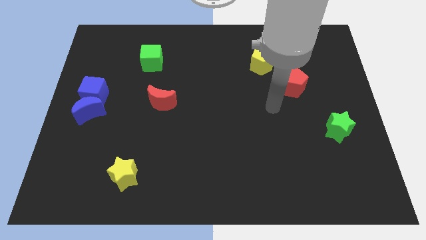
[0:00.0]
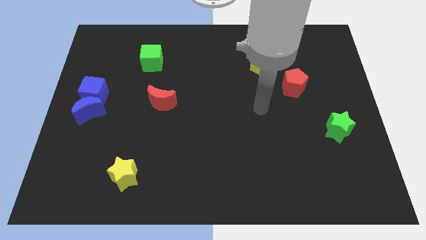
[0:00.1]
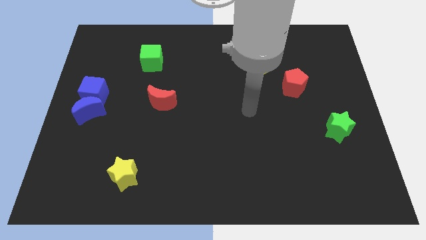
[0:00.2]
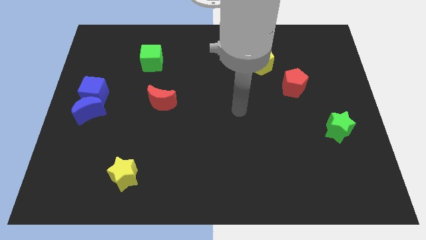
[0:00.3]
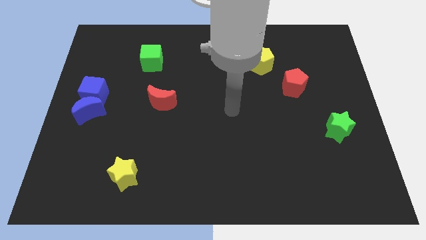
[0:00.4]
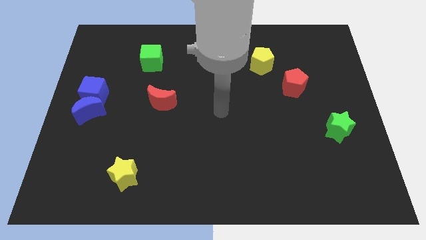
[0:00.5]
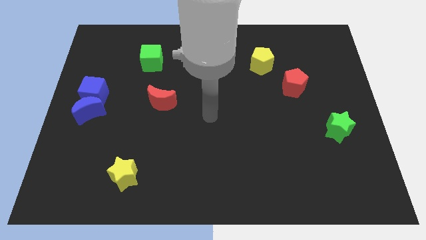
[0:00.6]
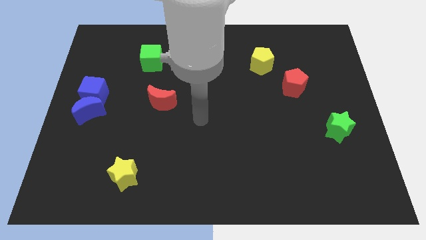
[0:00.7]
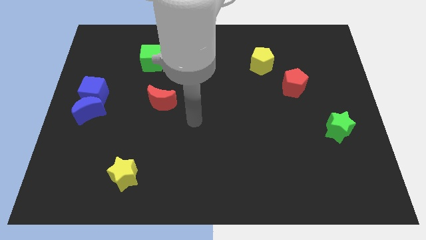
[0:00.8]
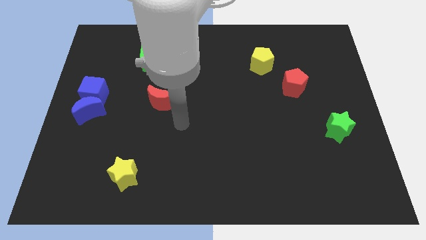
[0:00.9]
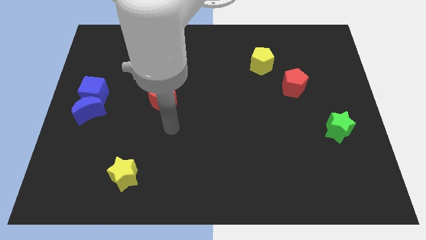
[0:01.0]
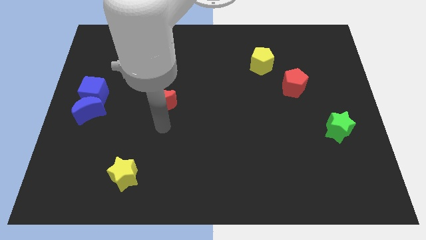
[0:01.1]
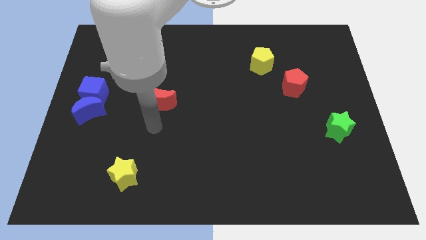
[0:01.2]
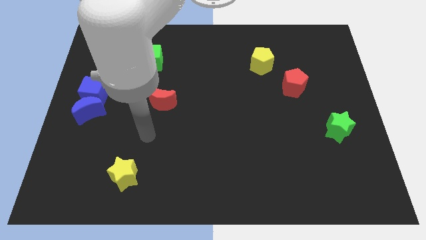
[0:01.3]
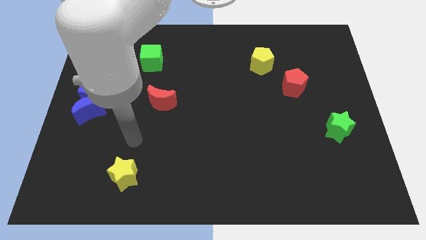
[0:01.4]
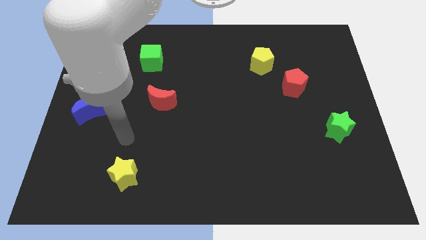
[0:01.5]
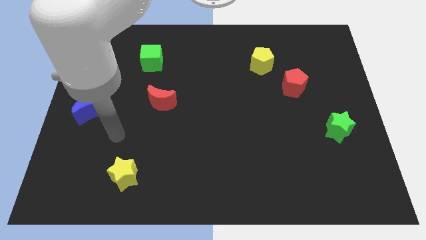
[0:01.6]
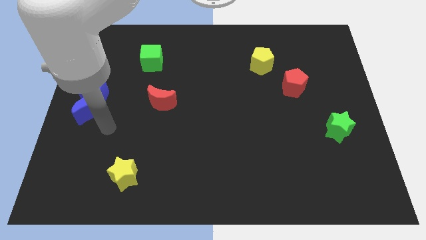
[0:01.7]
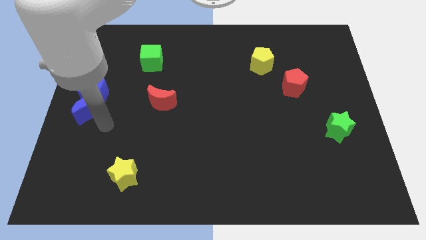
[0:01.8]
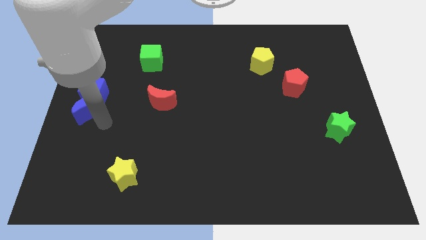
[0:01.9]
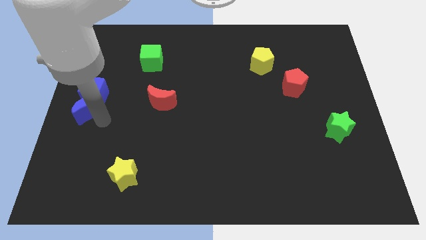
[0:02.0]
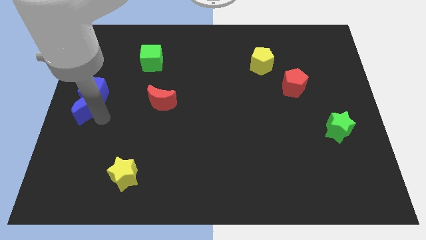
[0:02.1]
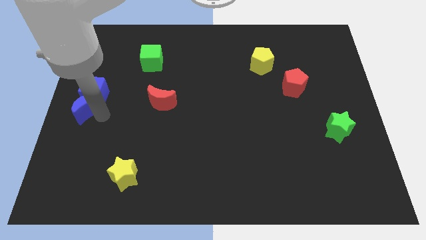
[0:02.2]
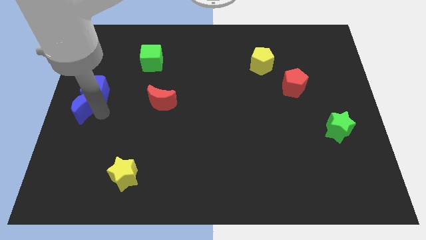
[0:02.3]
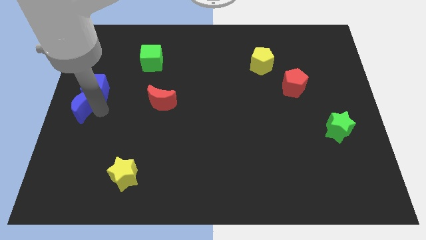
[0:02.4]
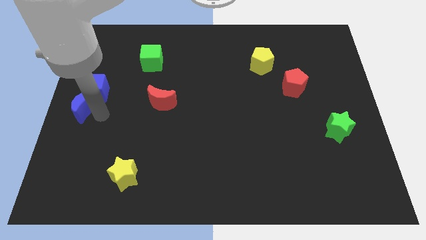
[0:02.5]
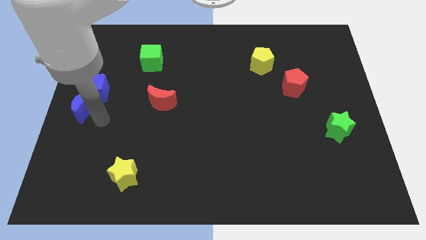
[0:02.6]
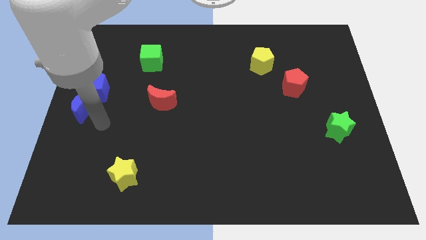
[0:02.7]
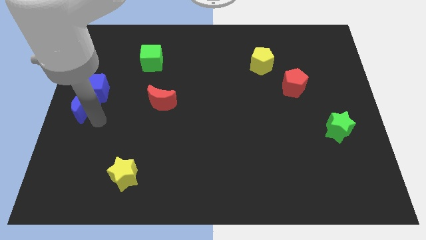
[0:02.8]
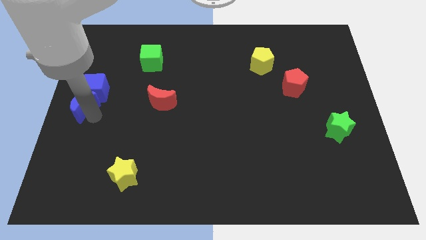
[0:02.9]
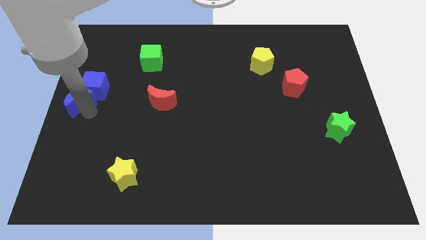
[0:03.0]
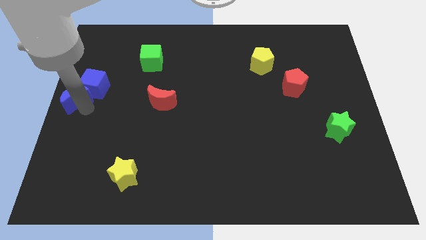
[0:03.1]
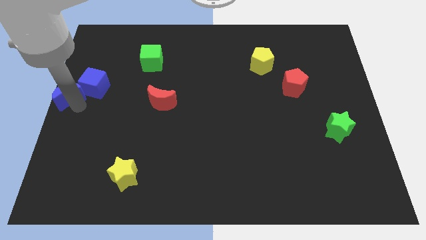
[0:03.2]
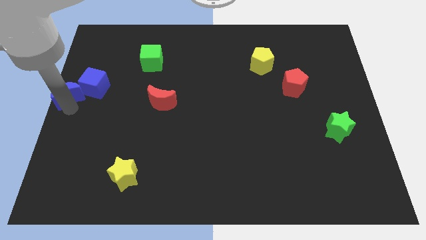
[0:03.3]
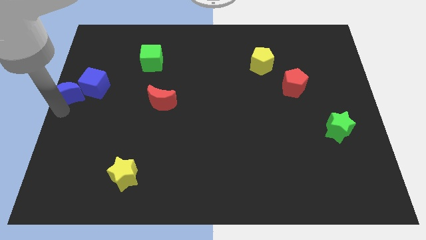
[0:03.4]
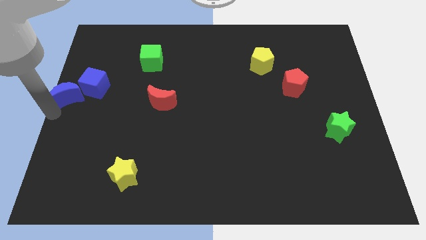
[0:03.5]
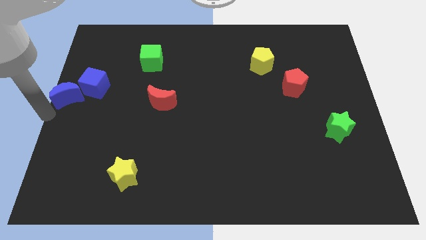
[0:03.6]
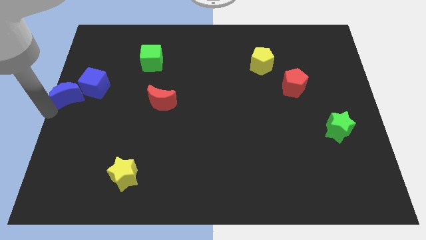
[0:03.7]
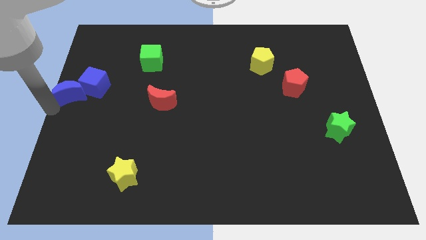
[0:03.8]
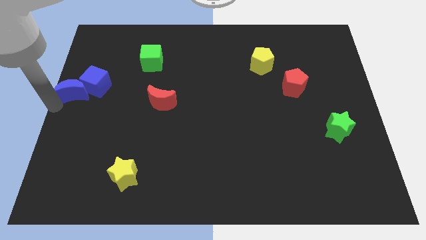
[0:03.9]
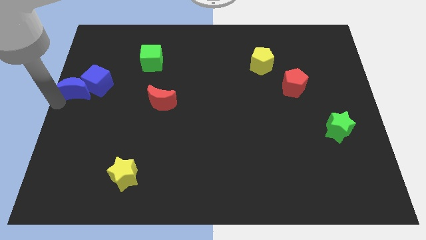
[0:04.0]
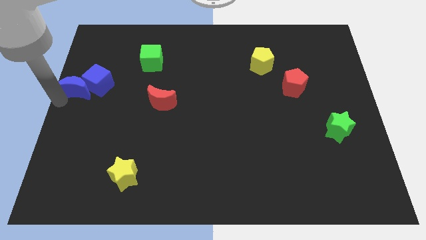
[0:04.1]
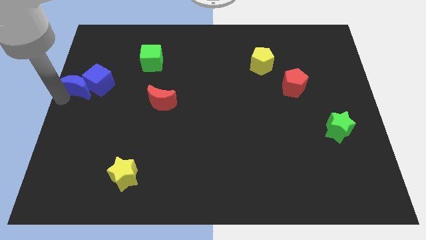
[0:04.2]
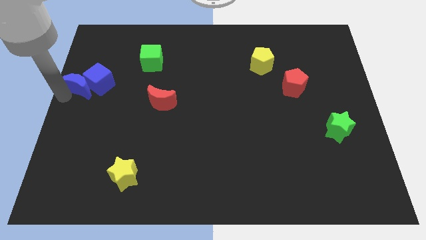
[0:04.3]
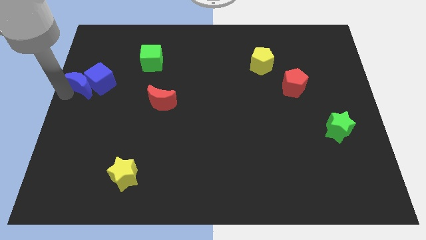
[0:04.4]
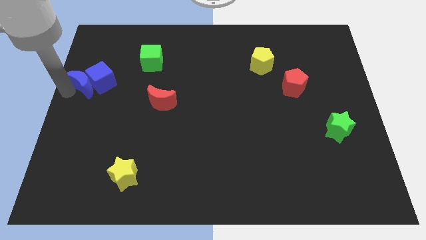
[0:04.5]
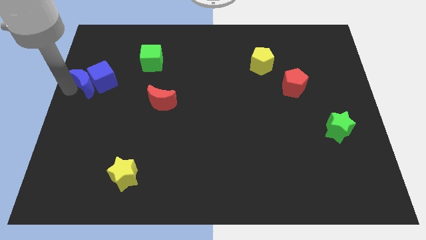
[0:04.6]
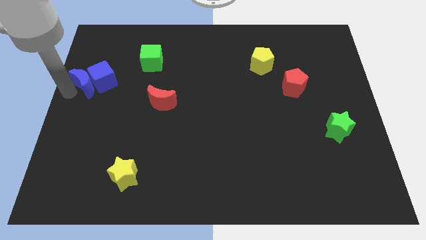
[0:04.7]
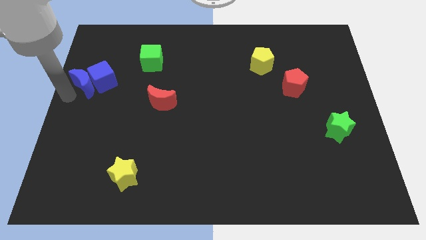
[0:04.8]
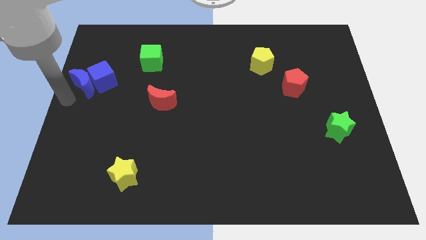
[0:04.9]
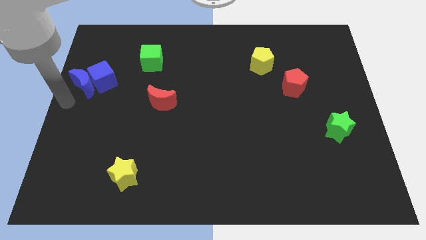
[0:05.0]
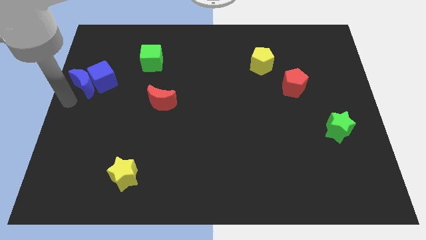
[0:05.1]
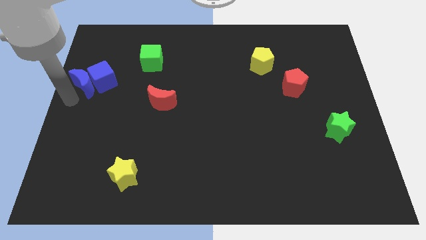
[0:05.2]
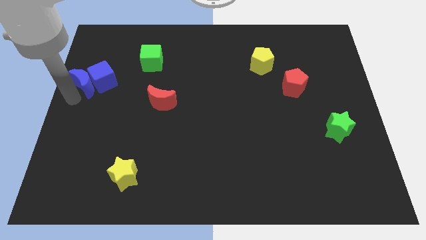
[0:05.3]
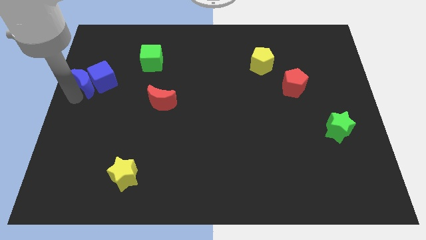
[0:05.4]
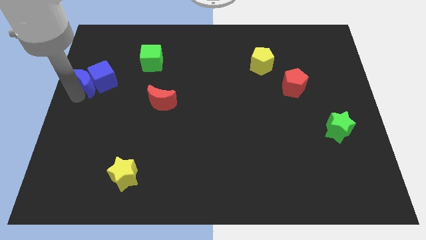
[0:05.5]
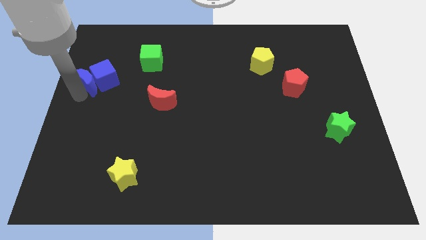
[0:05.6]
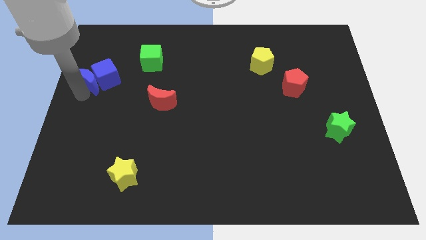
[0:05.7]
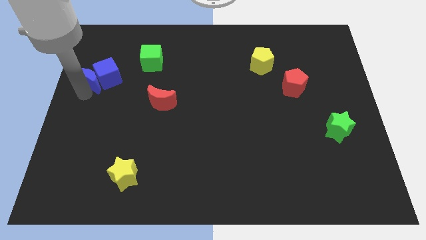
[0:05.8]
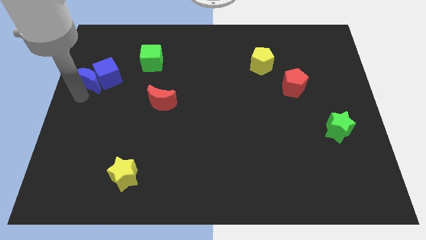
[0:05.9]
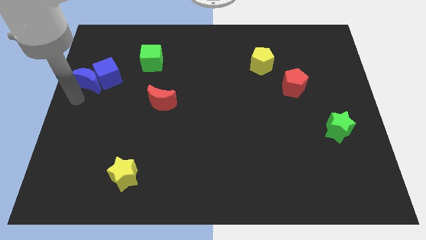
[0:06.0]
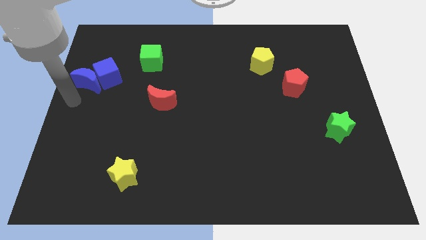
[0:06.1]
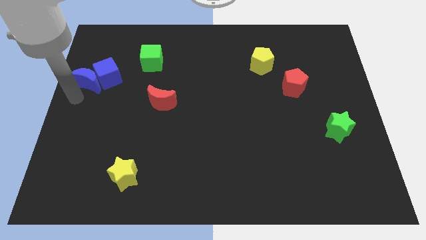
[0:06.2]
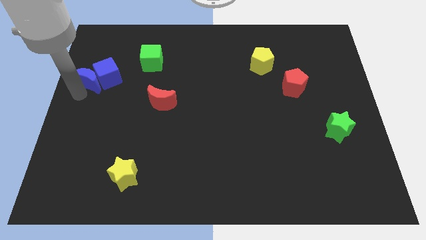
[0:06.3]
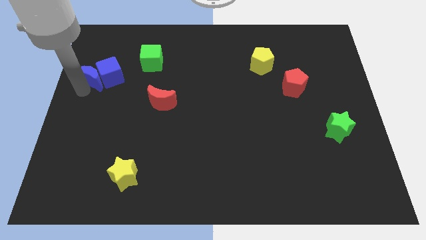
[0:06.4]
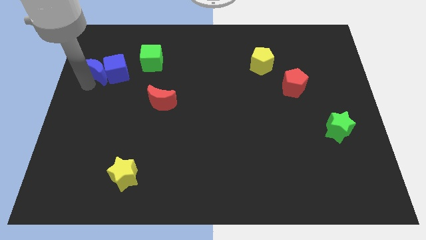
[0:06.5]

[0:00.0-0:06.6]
move the blue moon to the left side of the green cube
